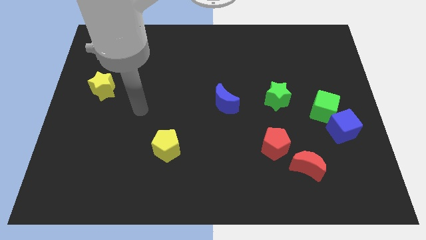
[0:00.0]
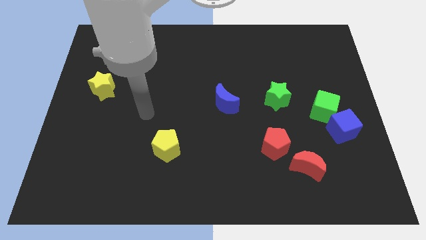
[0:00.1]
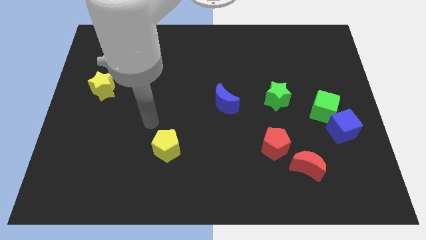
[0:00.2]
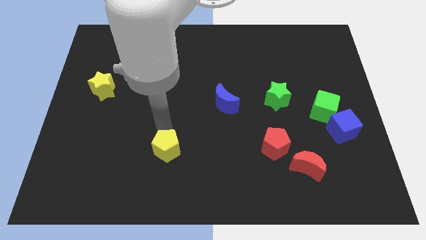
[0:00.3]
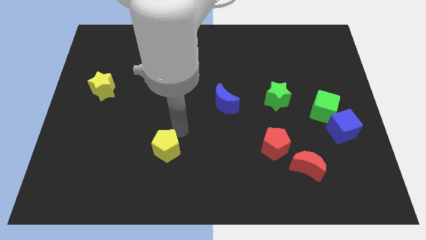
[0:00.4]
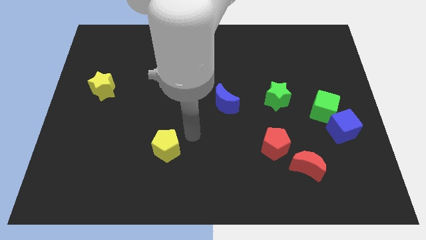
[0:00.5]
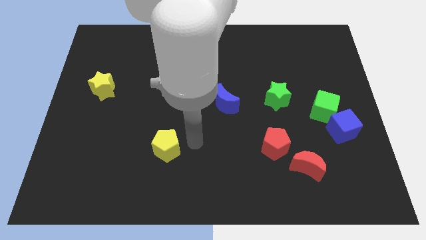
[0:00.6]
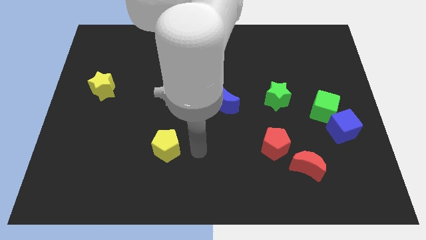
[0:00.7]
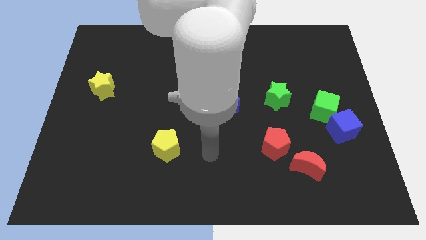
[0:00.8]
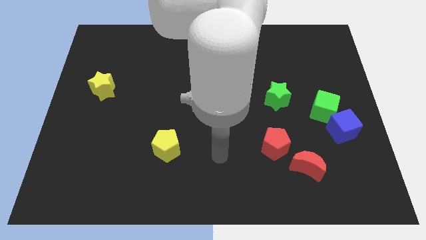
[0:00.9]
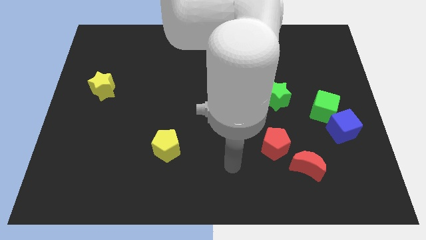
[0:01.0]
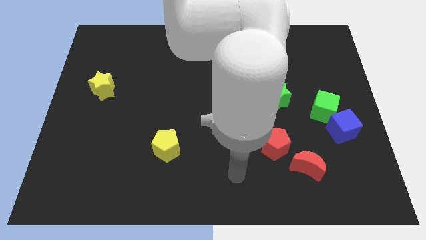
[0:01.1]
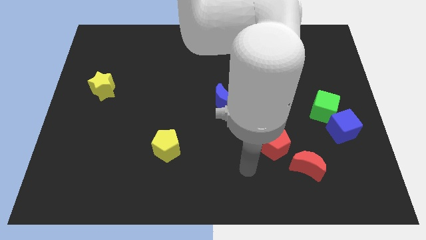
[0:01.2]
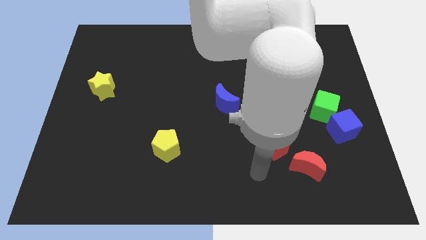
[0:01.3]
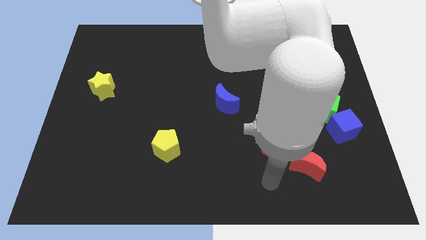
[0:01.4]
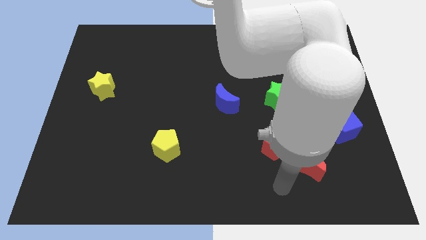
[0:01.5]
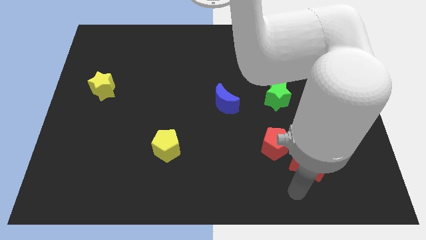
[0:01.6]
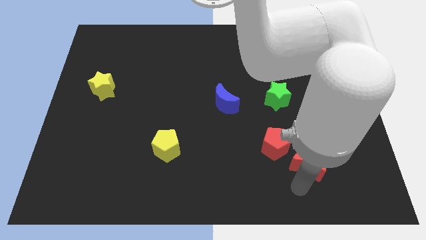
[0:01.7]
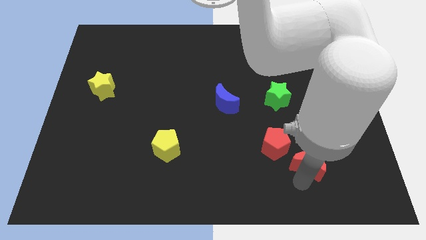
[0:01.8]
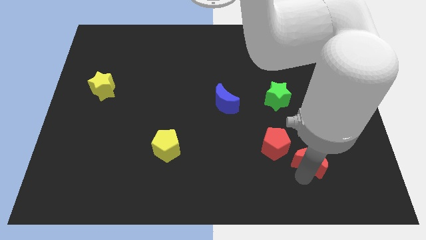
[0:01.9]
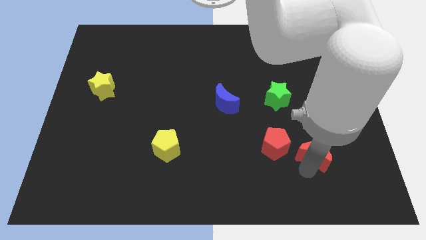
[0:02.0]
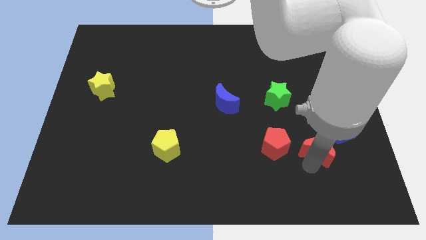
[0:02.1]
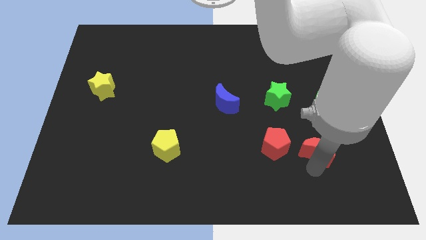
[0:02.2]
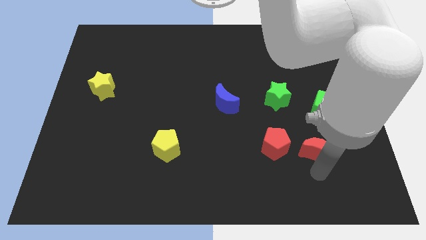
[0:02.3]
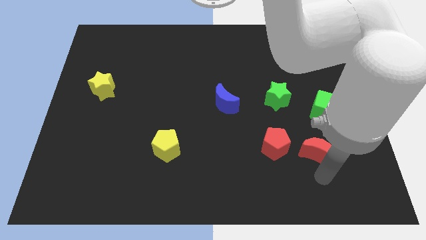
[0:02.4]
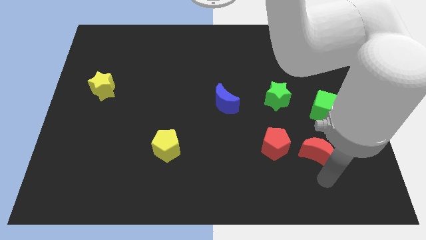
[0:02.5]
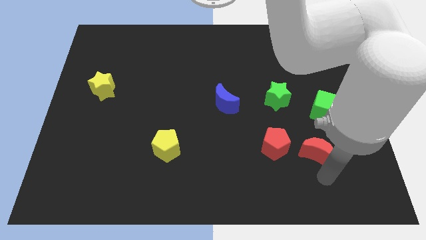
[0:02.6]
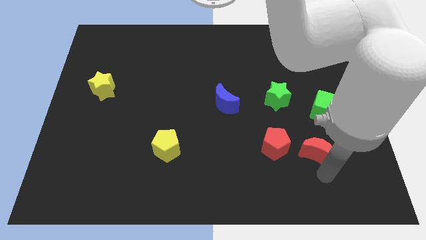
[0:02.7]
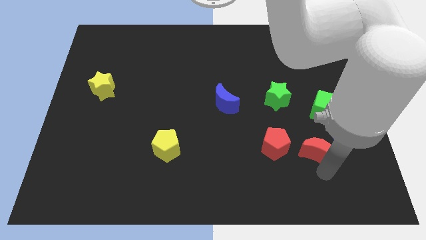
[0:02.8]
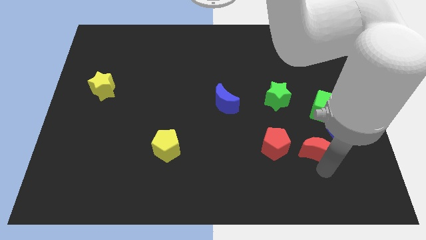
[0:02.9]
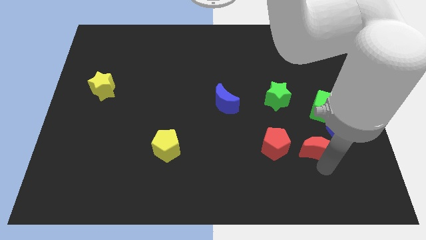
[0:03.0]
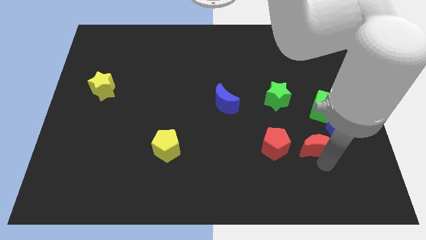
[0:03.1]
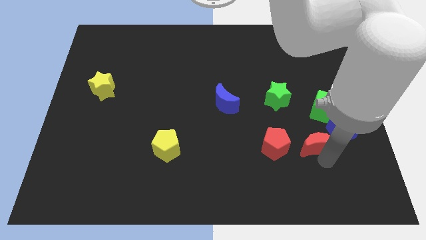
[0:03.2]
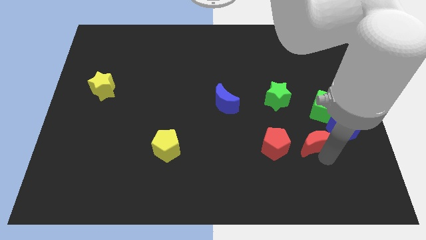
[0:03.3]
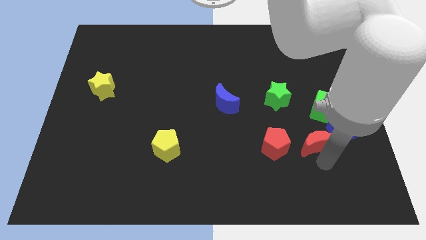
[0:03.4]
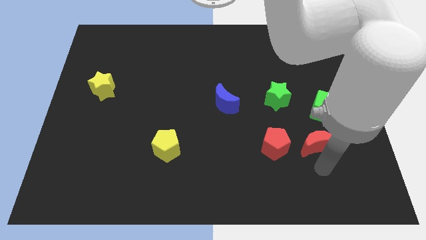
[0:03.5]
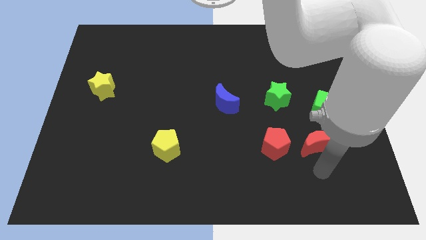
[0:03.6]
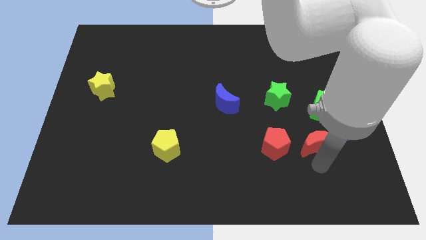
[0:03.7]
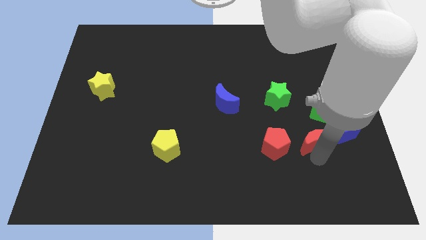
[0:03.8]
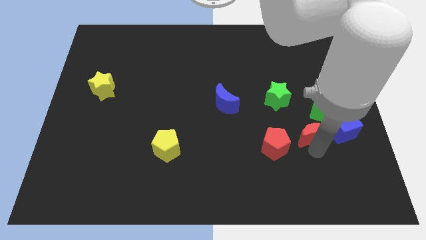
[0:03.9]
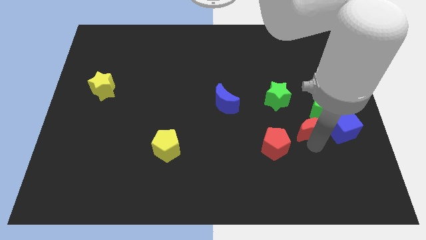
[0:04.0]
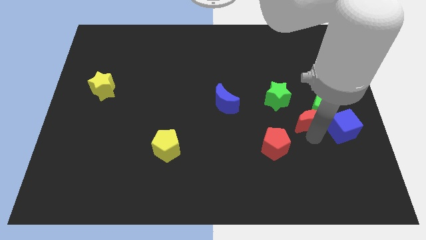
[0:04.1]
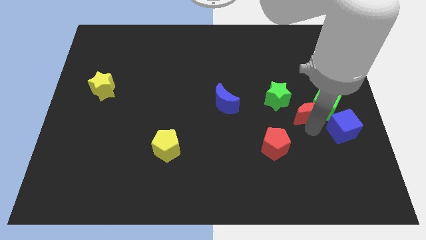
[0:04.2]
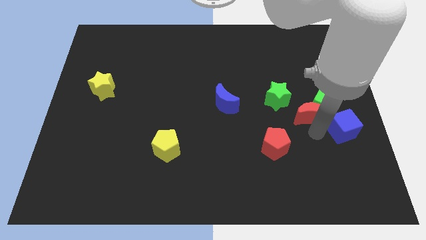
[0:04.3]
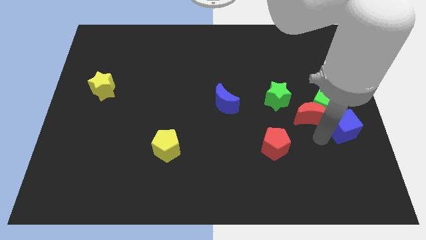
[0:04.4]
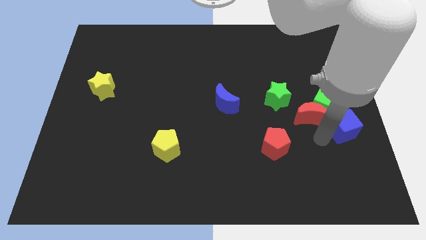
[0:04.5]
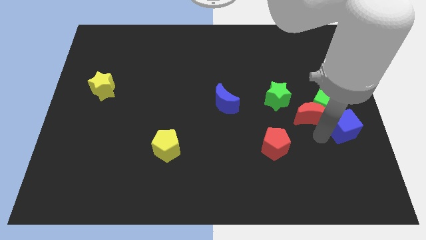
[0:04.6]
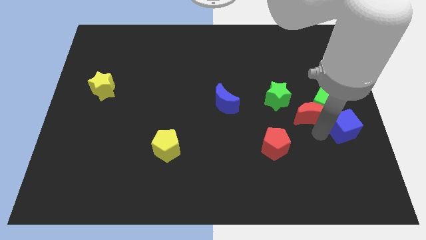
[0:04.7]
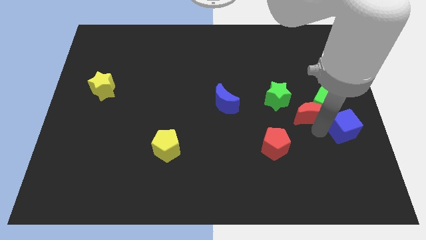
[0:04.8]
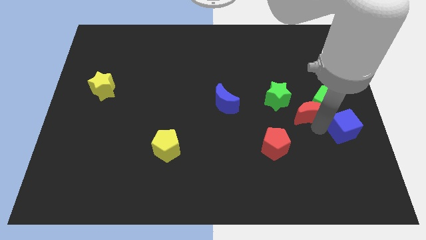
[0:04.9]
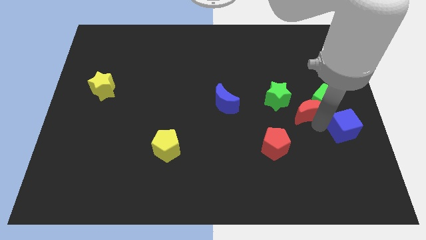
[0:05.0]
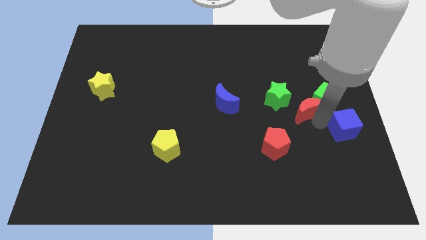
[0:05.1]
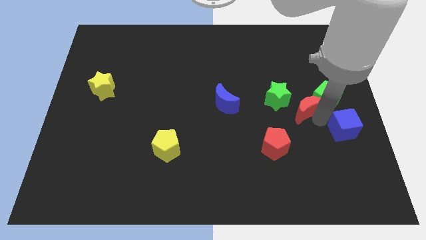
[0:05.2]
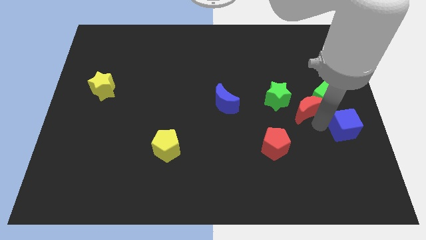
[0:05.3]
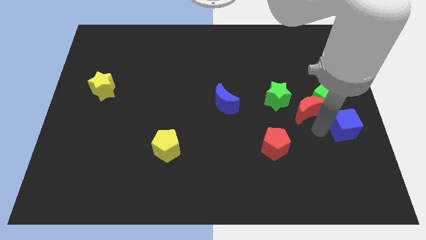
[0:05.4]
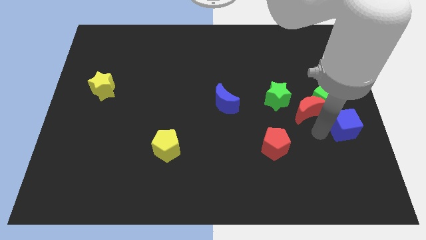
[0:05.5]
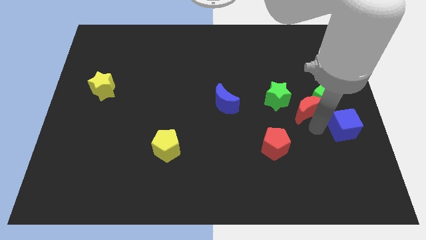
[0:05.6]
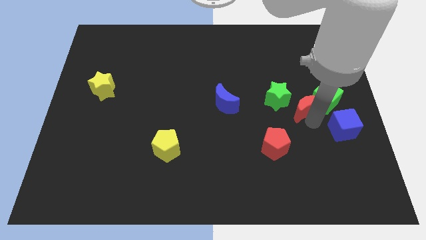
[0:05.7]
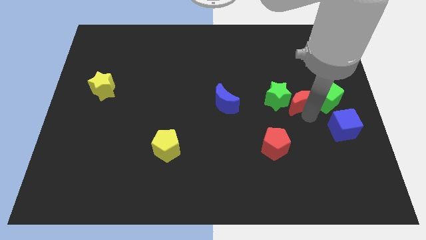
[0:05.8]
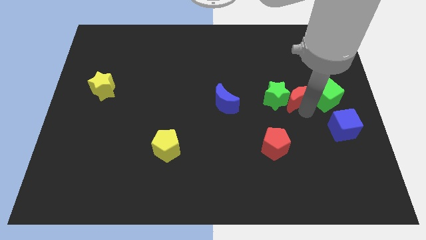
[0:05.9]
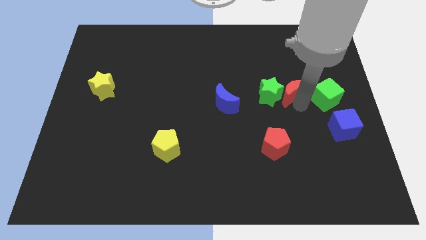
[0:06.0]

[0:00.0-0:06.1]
move the red moon upwards

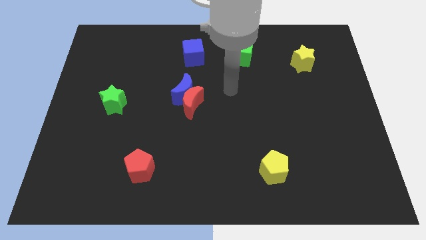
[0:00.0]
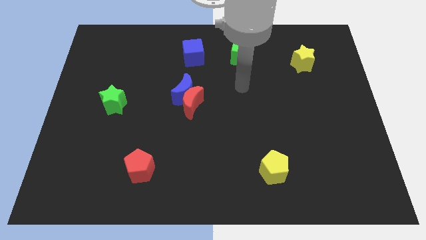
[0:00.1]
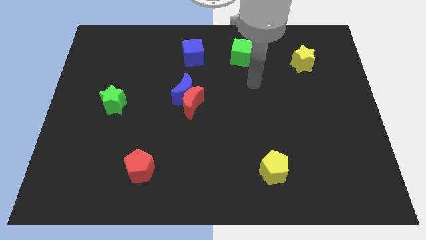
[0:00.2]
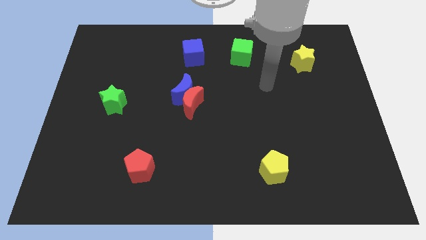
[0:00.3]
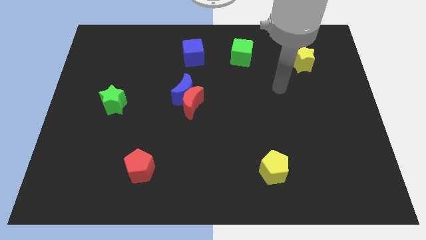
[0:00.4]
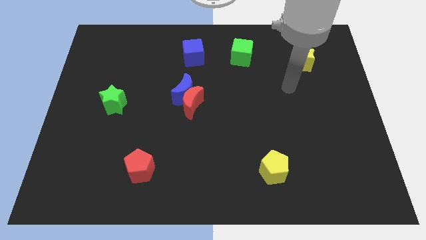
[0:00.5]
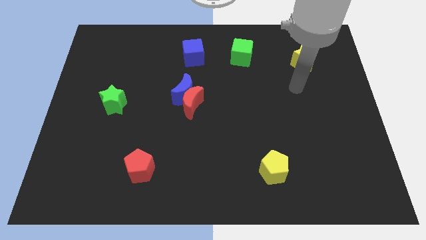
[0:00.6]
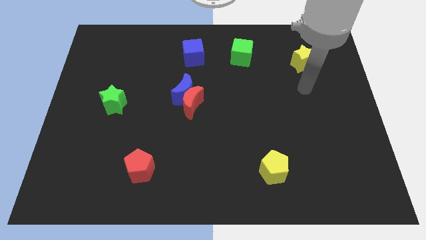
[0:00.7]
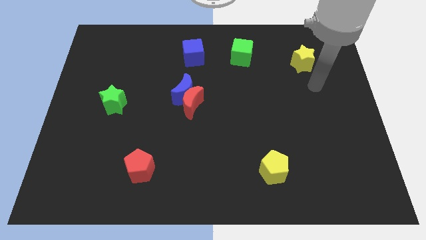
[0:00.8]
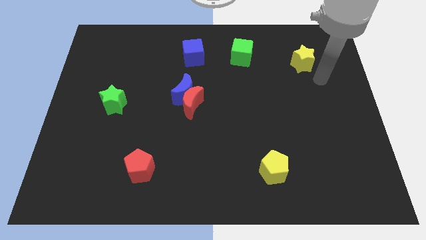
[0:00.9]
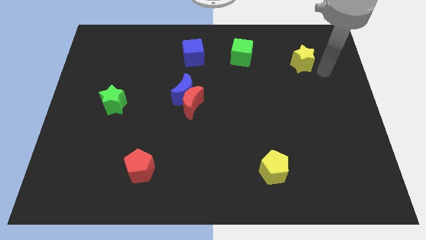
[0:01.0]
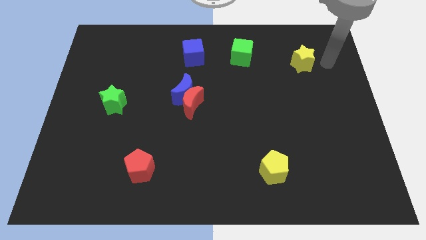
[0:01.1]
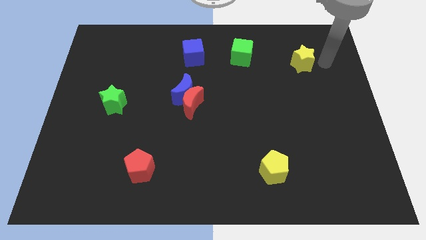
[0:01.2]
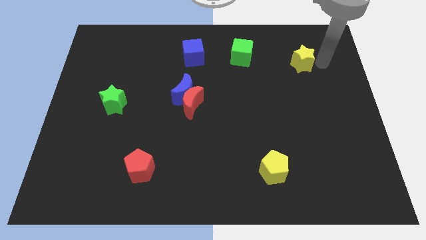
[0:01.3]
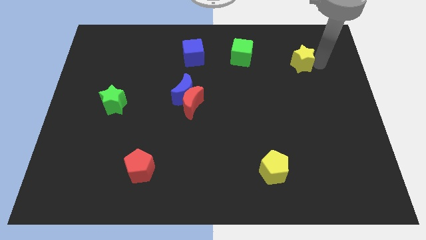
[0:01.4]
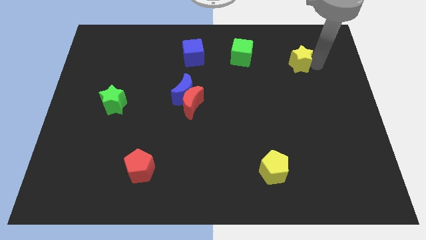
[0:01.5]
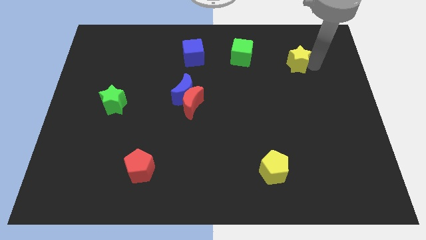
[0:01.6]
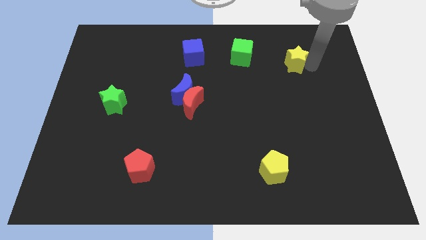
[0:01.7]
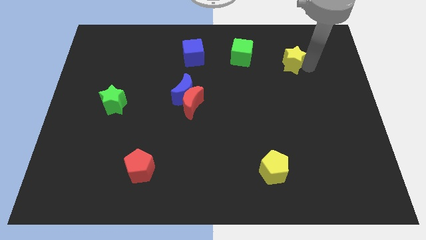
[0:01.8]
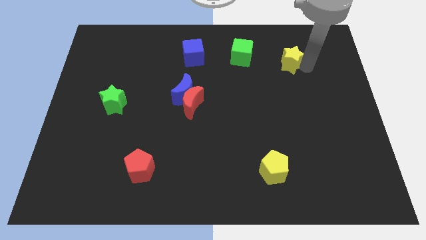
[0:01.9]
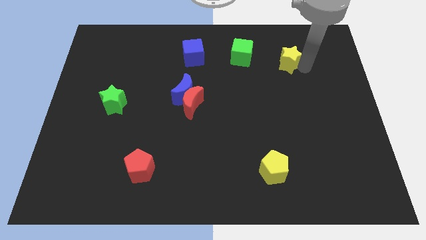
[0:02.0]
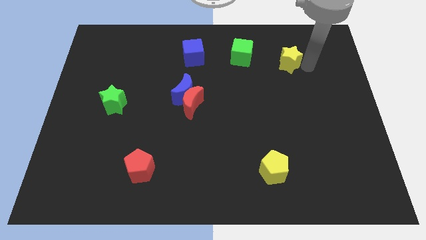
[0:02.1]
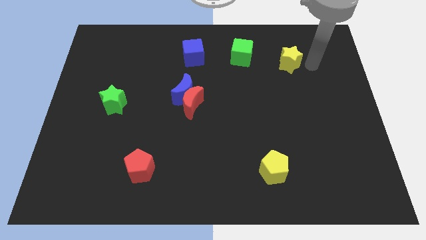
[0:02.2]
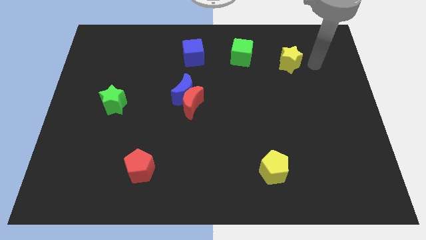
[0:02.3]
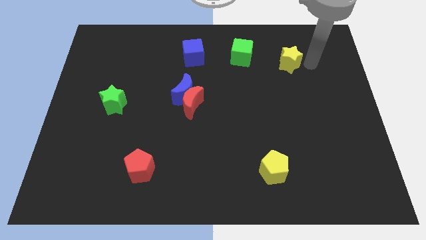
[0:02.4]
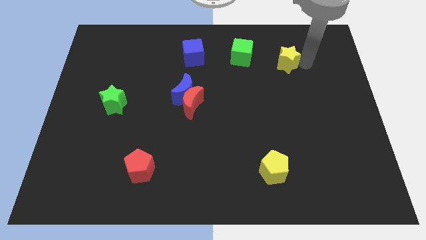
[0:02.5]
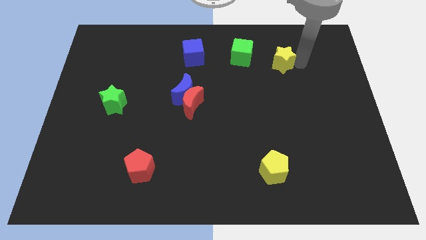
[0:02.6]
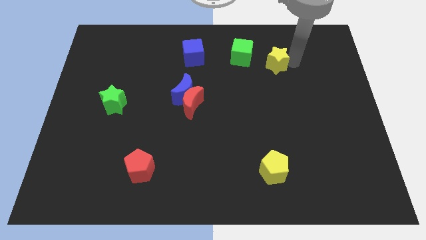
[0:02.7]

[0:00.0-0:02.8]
slightly move the yellow star to the left
